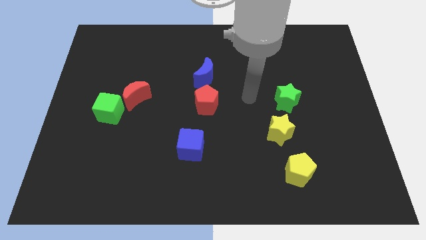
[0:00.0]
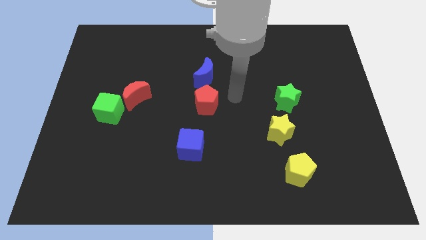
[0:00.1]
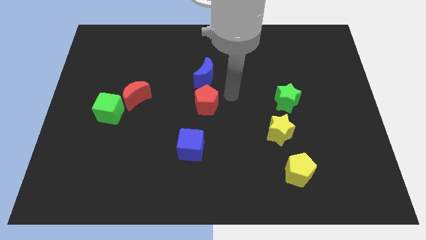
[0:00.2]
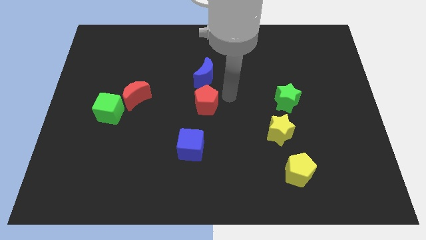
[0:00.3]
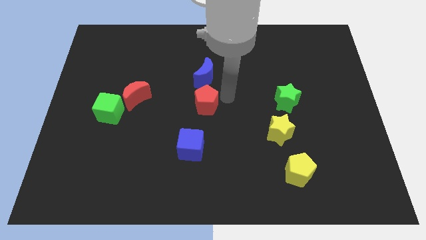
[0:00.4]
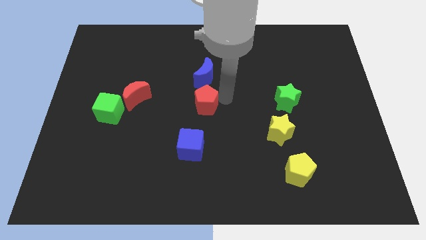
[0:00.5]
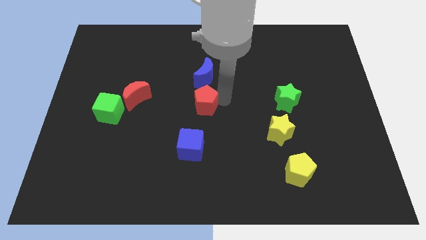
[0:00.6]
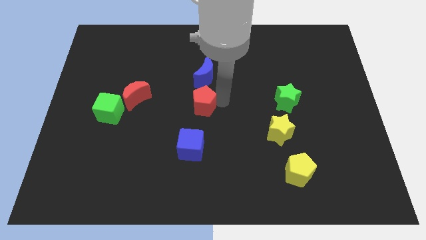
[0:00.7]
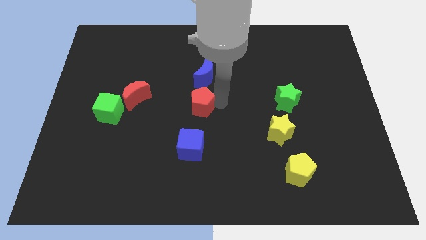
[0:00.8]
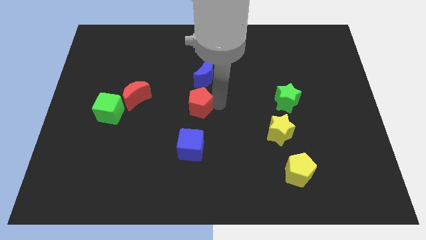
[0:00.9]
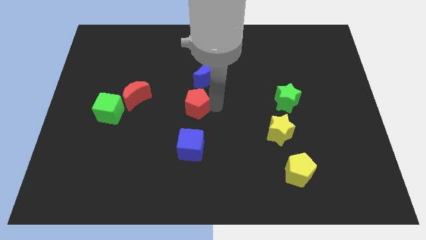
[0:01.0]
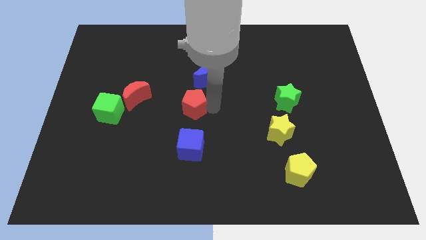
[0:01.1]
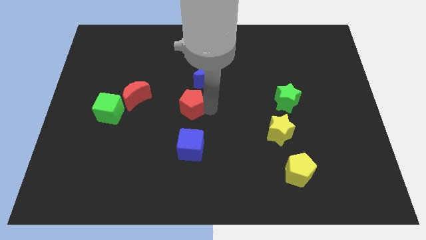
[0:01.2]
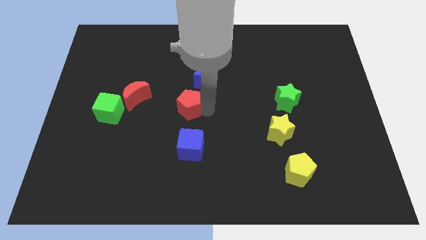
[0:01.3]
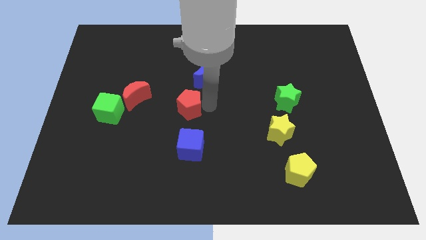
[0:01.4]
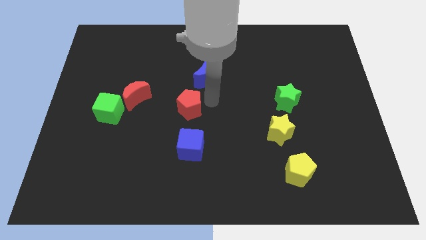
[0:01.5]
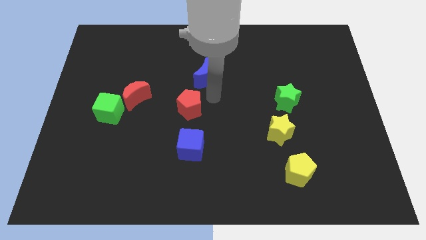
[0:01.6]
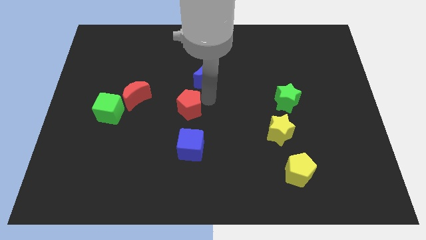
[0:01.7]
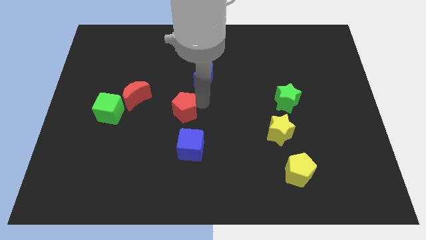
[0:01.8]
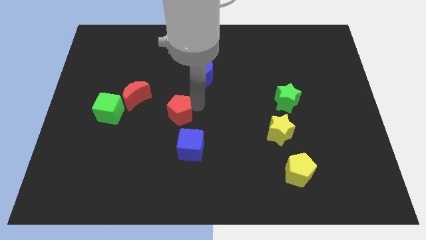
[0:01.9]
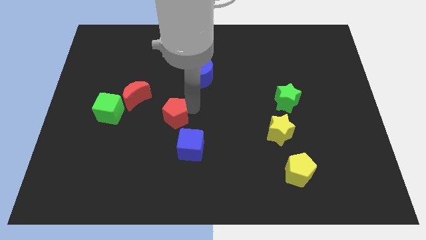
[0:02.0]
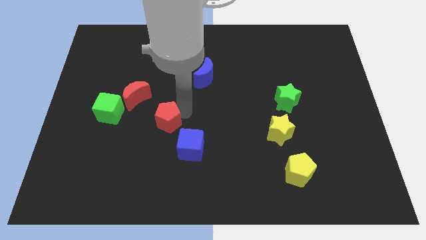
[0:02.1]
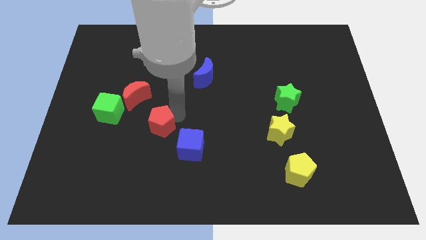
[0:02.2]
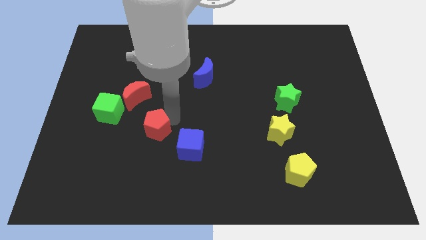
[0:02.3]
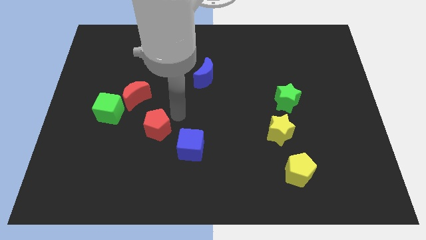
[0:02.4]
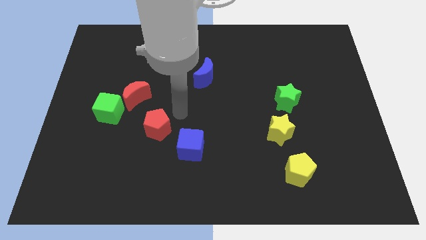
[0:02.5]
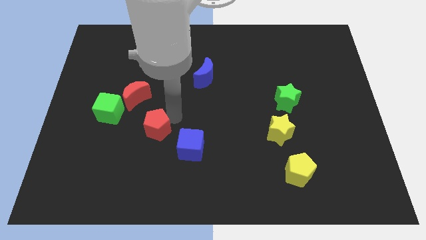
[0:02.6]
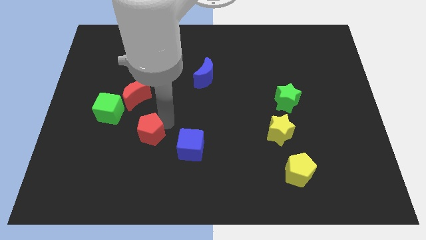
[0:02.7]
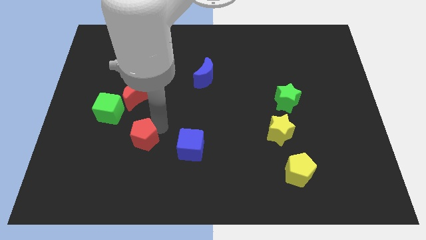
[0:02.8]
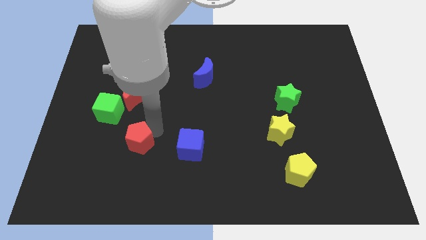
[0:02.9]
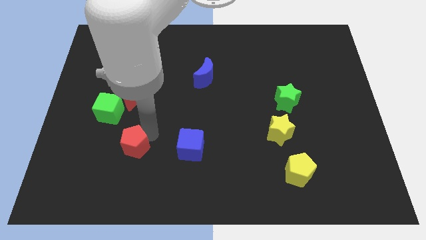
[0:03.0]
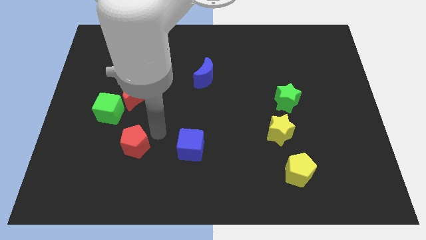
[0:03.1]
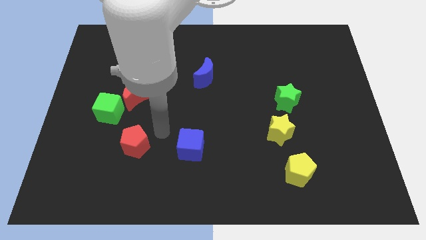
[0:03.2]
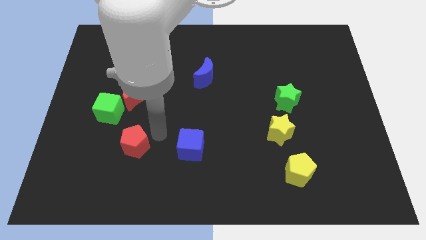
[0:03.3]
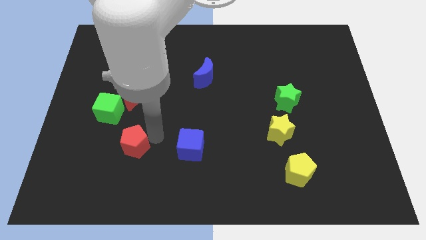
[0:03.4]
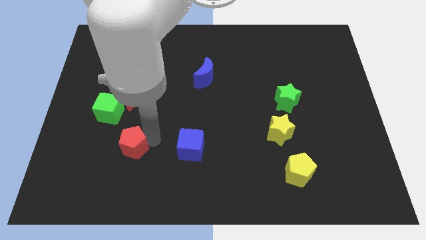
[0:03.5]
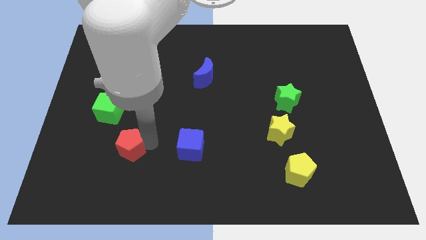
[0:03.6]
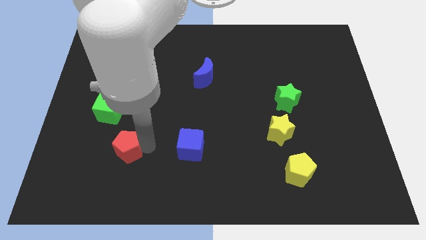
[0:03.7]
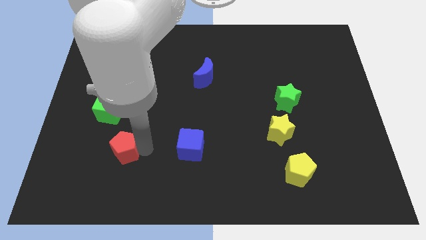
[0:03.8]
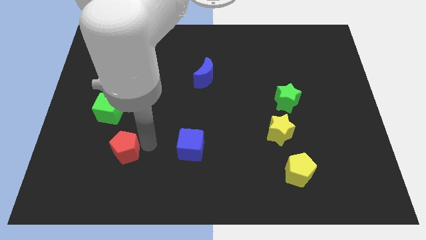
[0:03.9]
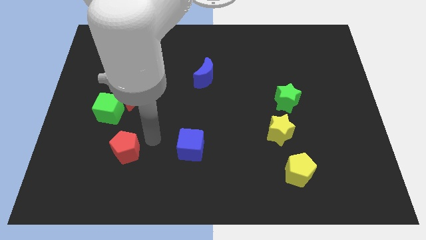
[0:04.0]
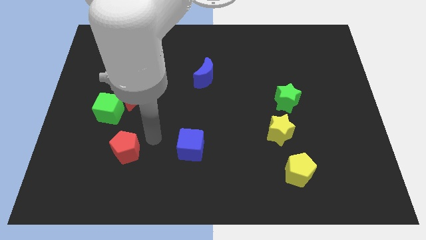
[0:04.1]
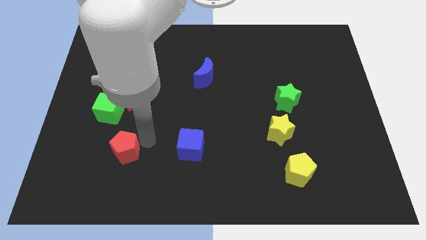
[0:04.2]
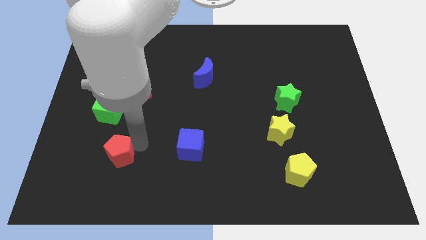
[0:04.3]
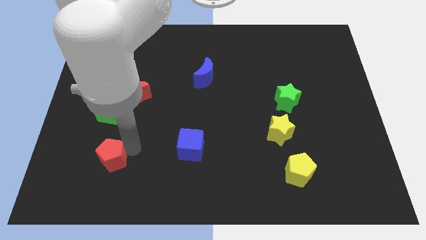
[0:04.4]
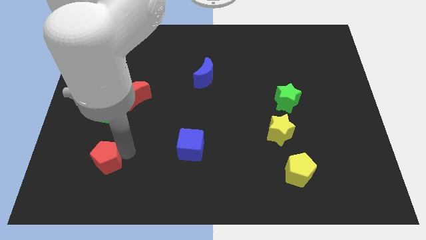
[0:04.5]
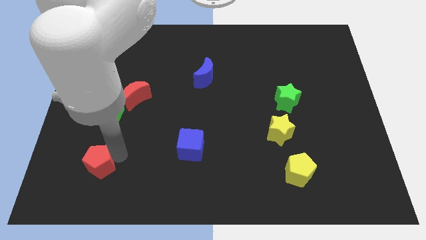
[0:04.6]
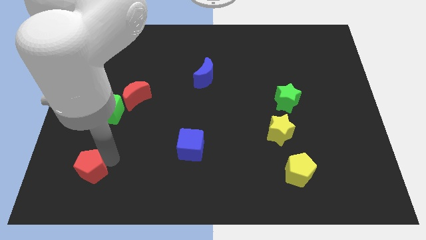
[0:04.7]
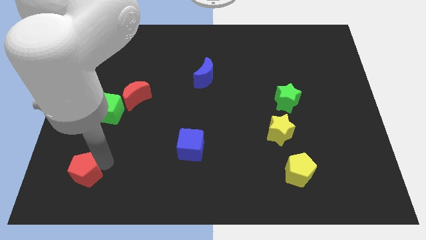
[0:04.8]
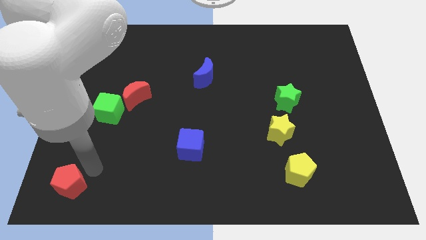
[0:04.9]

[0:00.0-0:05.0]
put the red pentagon to the bottom left

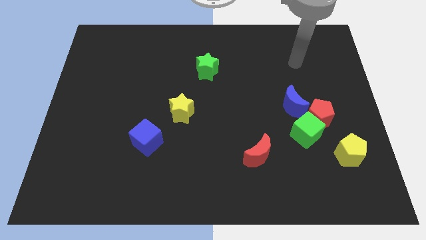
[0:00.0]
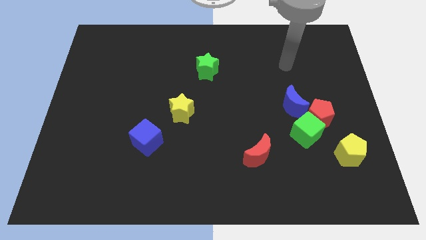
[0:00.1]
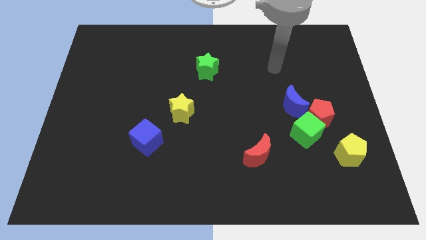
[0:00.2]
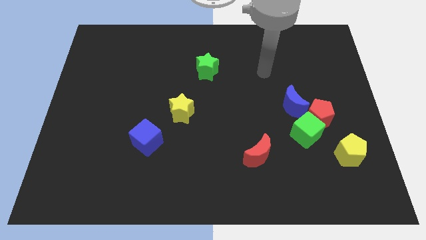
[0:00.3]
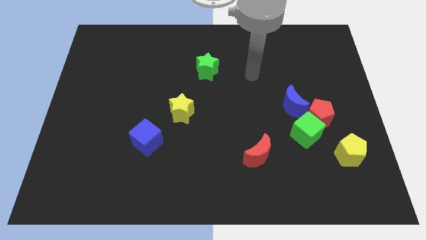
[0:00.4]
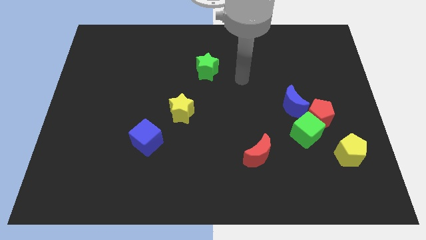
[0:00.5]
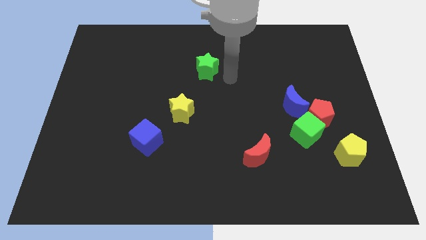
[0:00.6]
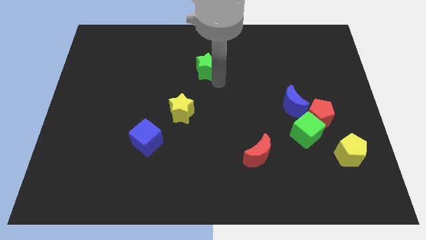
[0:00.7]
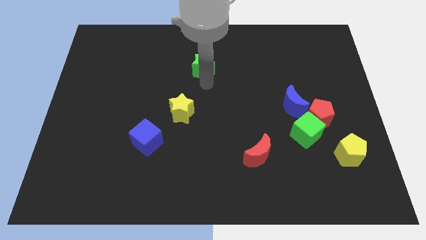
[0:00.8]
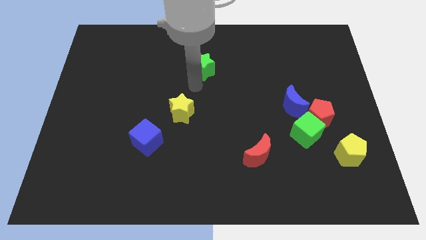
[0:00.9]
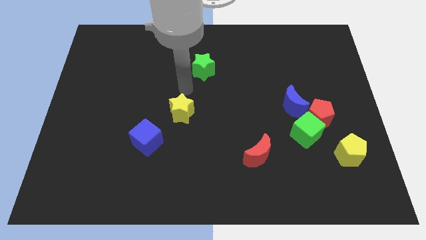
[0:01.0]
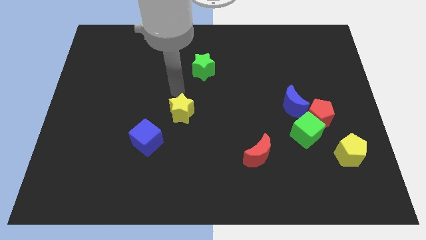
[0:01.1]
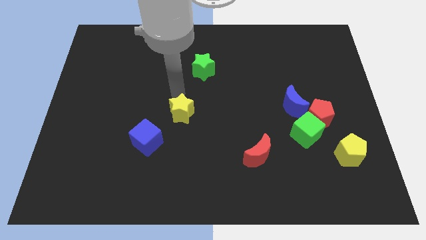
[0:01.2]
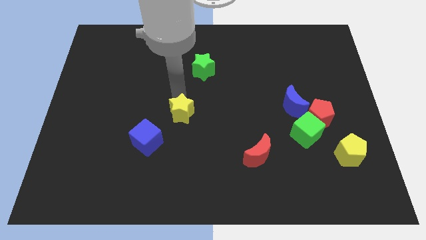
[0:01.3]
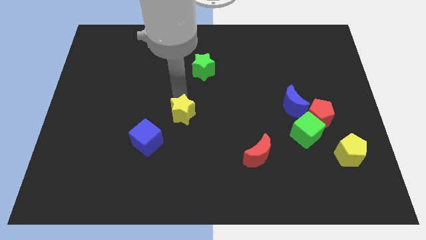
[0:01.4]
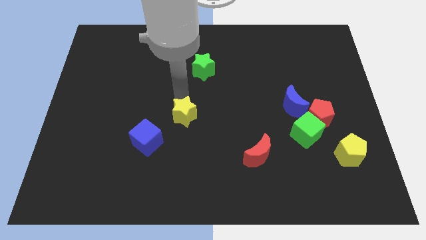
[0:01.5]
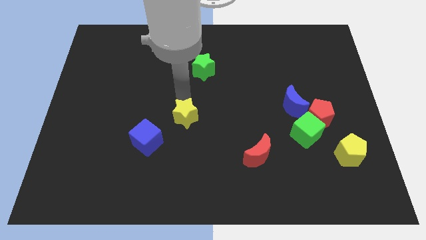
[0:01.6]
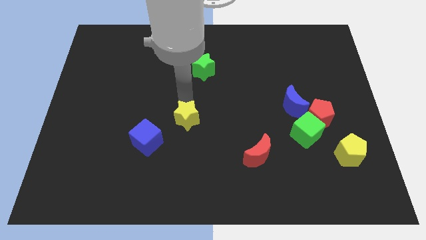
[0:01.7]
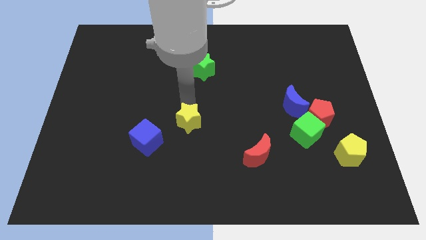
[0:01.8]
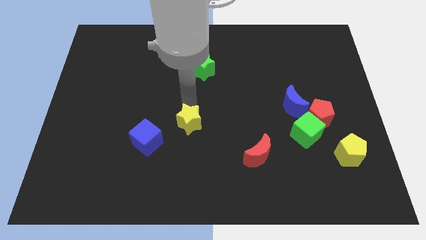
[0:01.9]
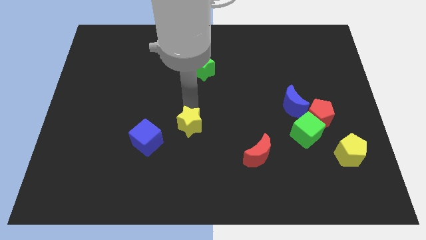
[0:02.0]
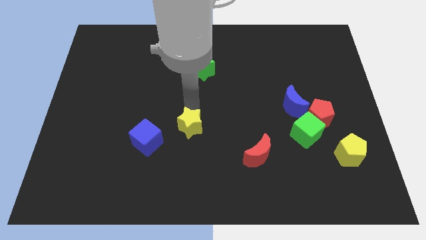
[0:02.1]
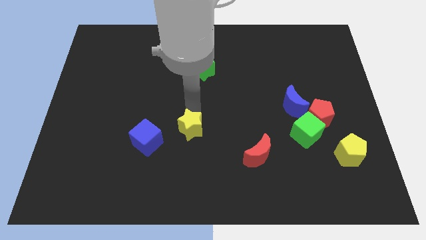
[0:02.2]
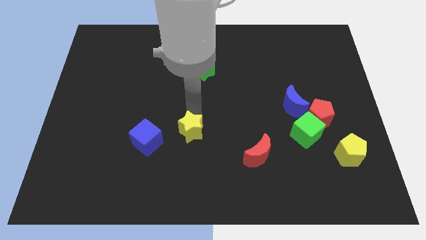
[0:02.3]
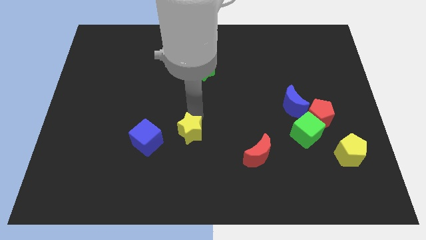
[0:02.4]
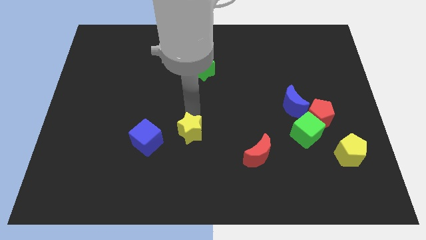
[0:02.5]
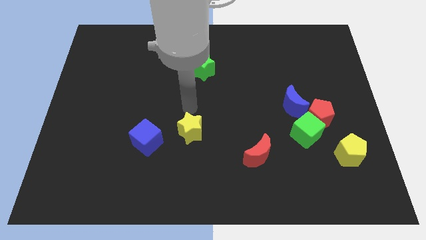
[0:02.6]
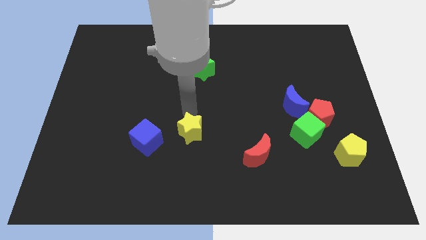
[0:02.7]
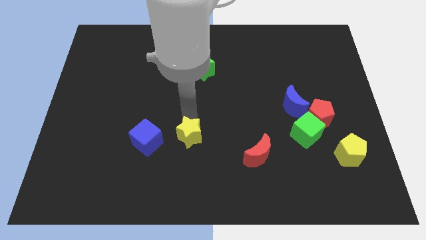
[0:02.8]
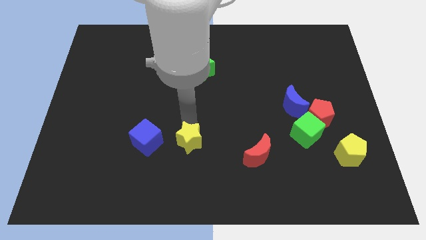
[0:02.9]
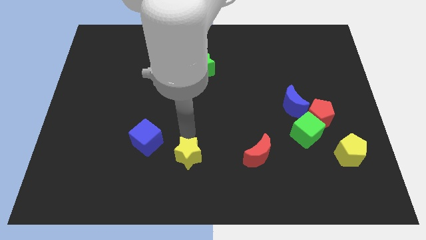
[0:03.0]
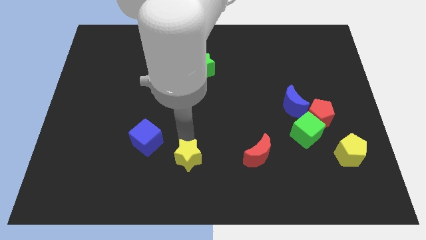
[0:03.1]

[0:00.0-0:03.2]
put the yellow star to the bottom side

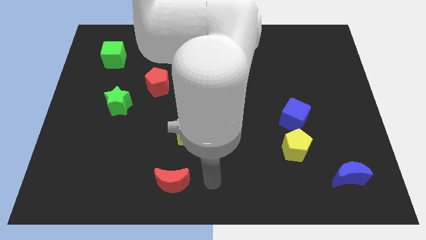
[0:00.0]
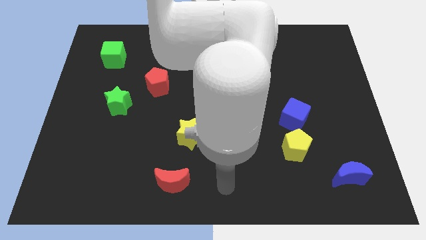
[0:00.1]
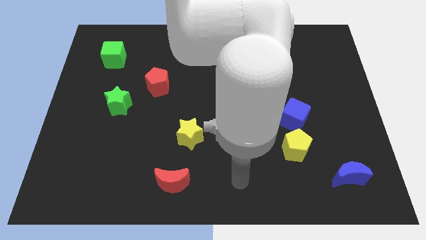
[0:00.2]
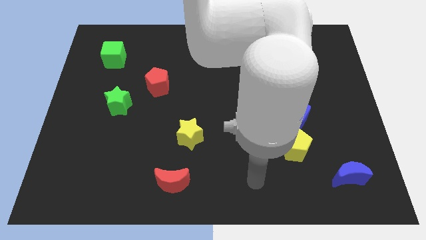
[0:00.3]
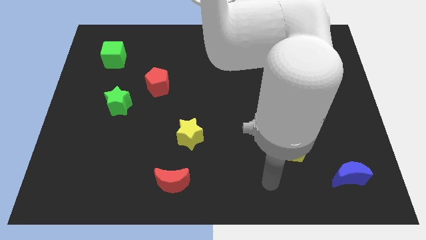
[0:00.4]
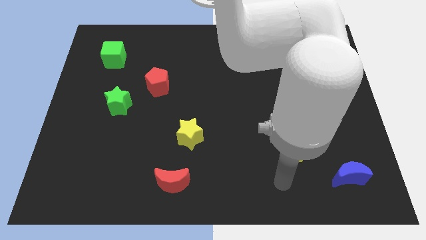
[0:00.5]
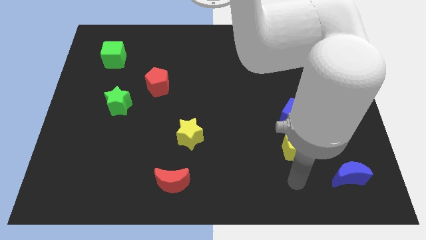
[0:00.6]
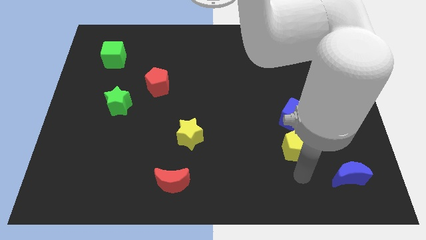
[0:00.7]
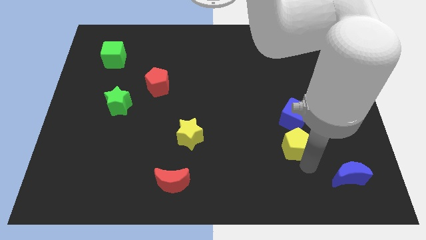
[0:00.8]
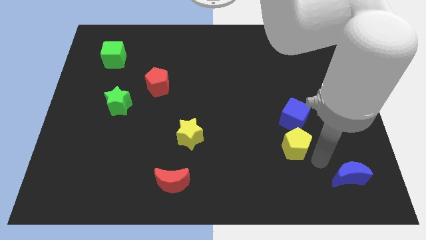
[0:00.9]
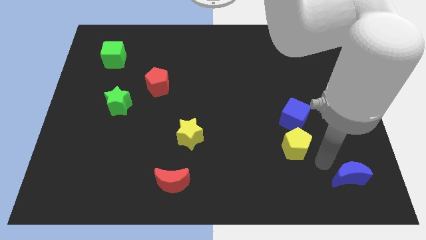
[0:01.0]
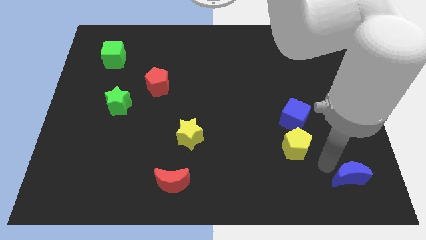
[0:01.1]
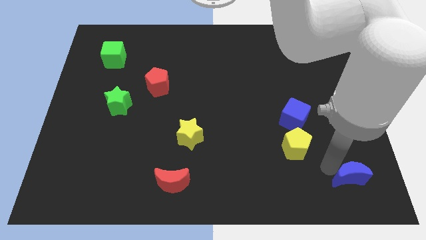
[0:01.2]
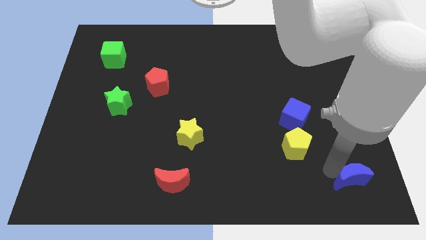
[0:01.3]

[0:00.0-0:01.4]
slide the blue moon to the bottom right corner
